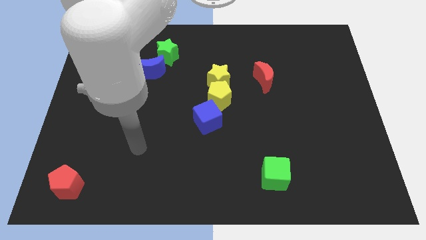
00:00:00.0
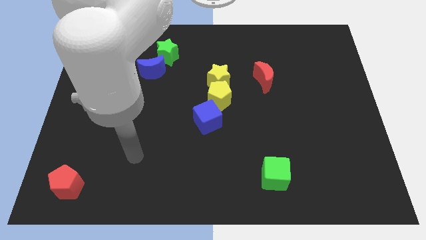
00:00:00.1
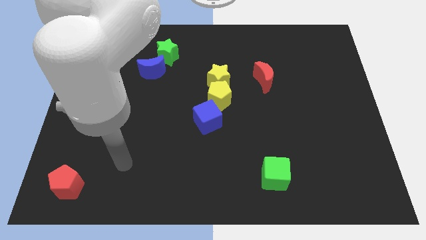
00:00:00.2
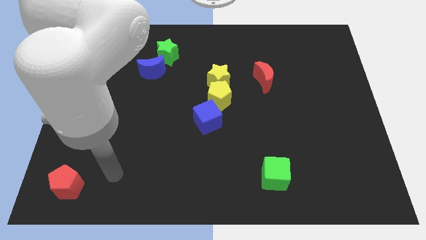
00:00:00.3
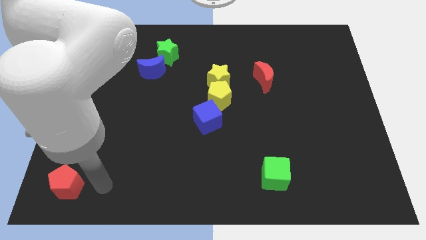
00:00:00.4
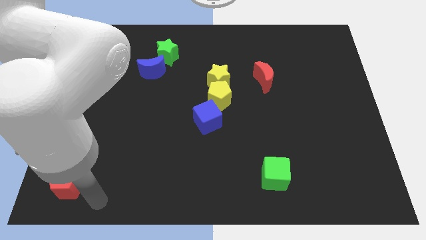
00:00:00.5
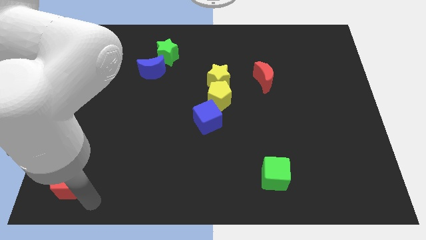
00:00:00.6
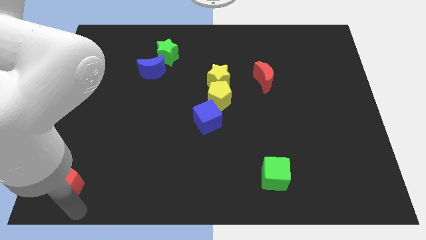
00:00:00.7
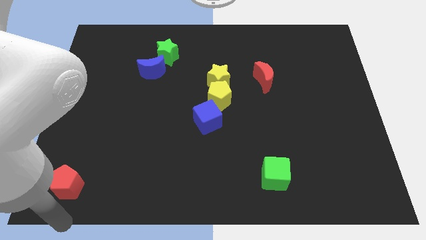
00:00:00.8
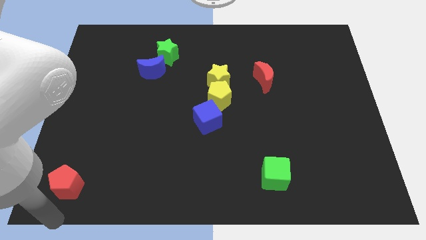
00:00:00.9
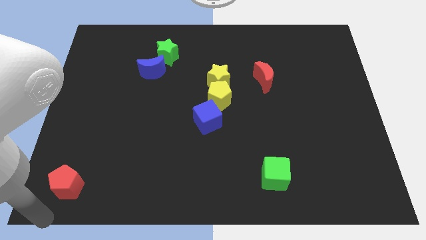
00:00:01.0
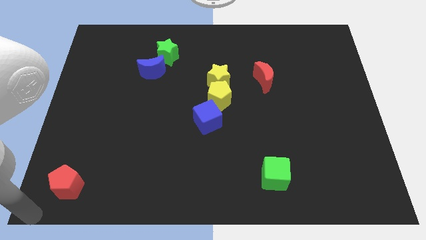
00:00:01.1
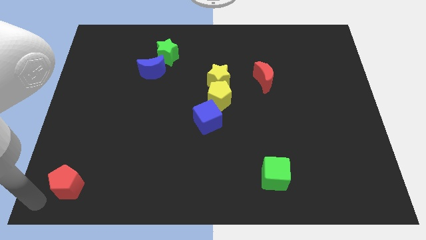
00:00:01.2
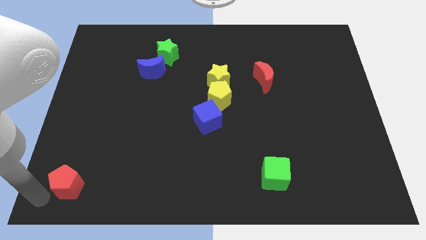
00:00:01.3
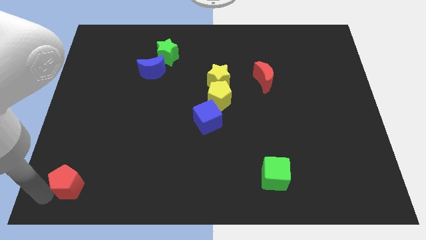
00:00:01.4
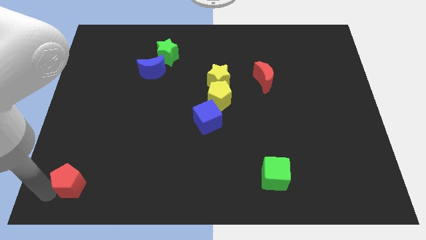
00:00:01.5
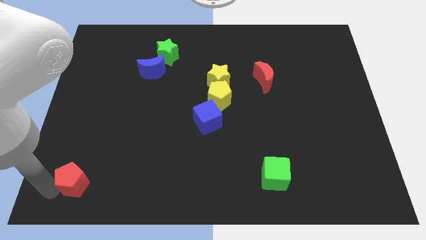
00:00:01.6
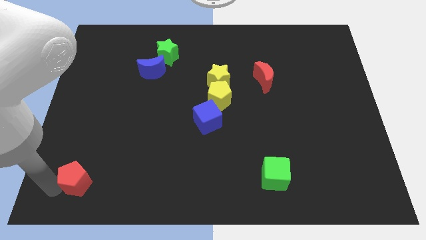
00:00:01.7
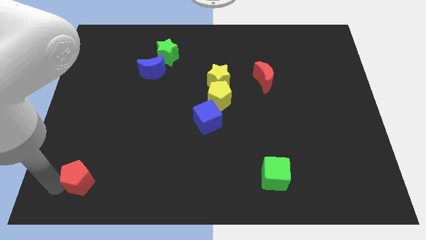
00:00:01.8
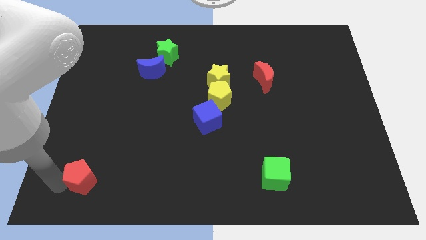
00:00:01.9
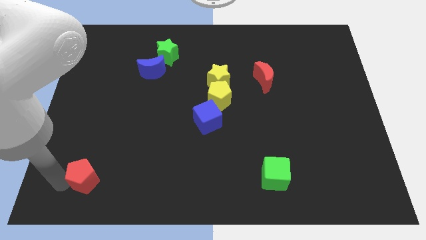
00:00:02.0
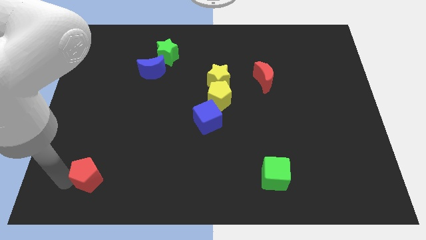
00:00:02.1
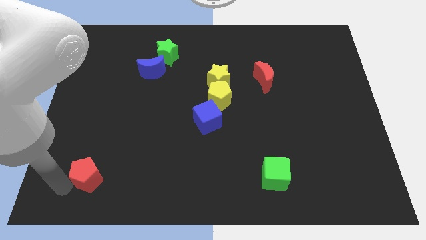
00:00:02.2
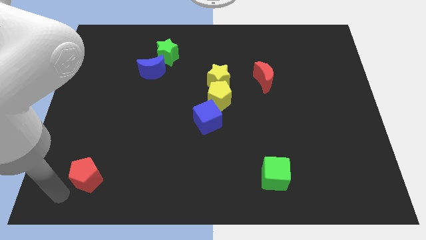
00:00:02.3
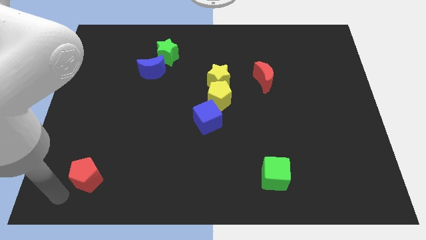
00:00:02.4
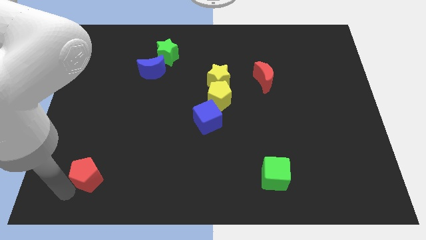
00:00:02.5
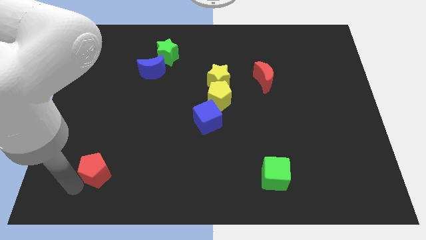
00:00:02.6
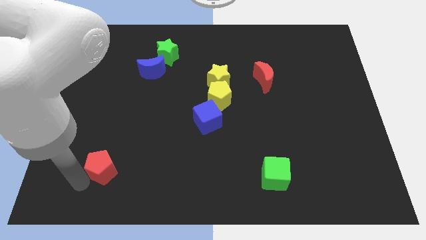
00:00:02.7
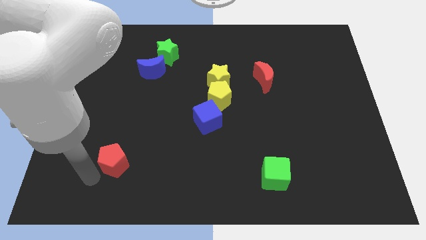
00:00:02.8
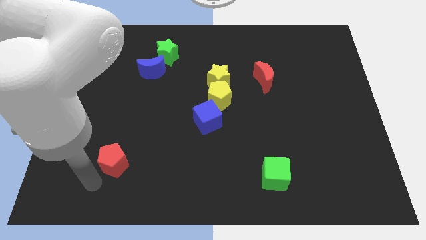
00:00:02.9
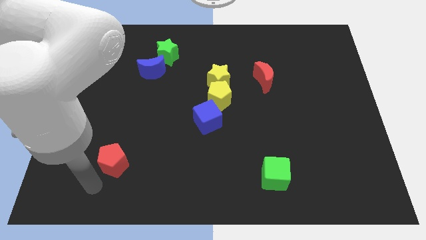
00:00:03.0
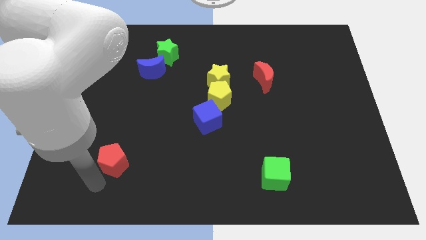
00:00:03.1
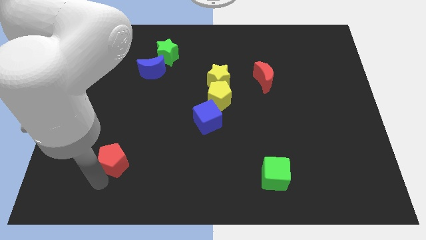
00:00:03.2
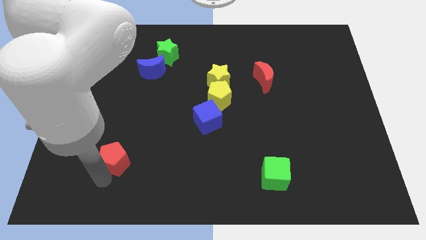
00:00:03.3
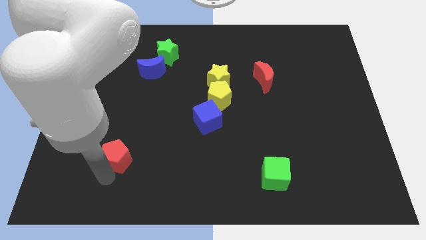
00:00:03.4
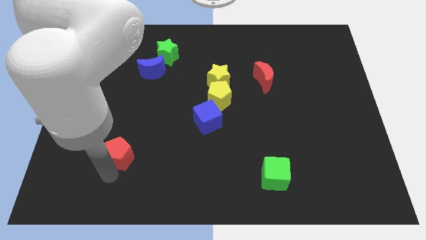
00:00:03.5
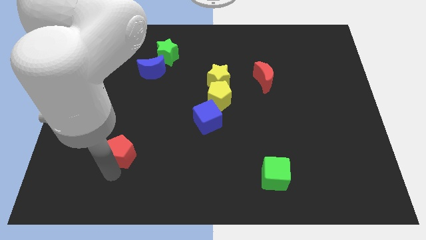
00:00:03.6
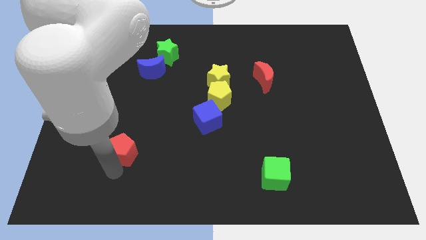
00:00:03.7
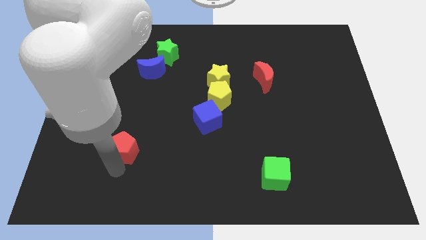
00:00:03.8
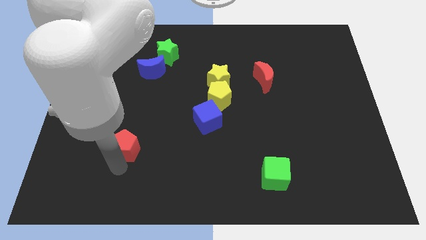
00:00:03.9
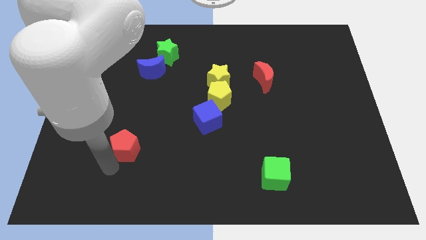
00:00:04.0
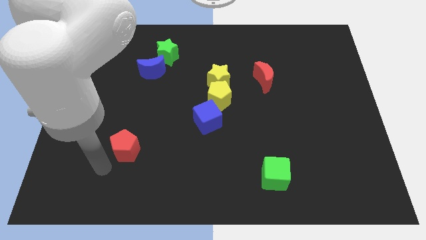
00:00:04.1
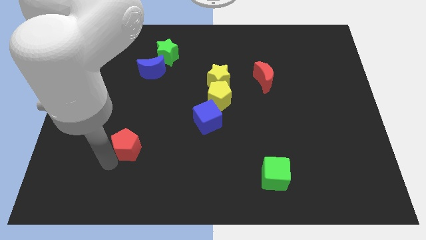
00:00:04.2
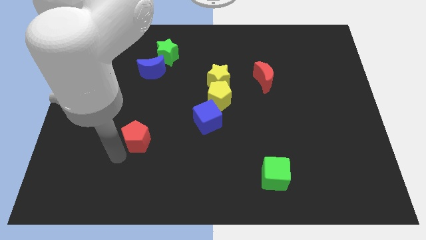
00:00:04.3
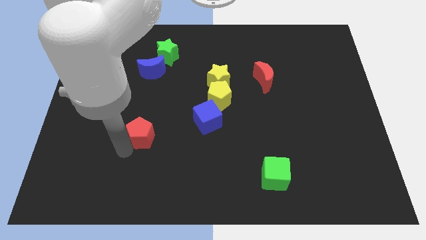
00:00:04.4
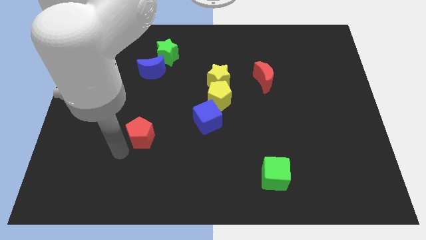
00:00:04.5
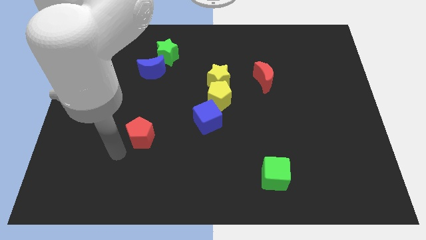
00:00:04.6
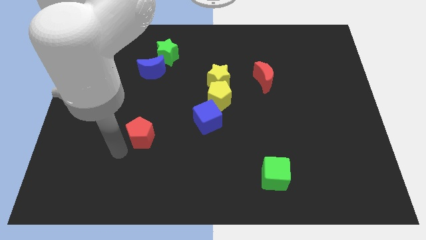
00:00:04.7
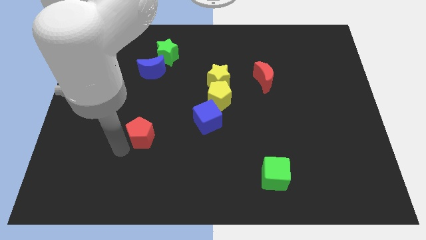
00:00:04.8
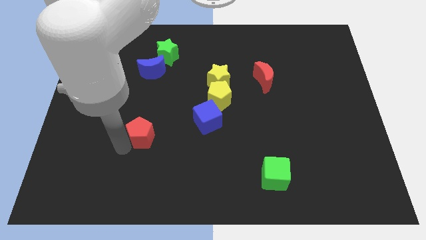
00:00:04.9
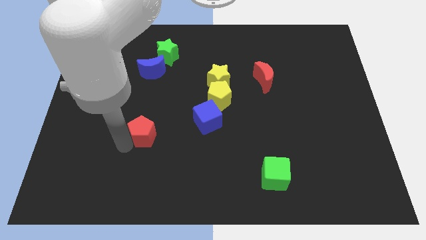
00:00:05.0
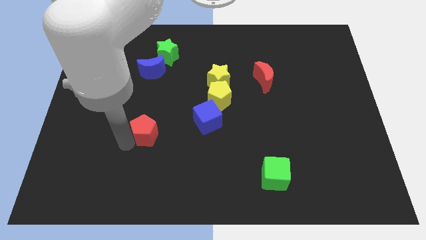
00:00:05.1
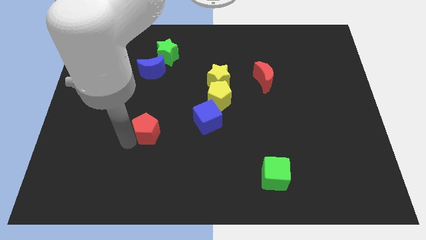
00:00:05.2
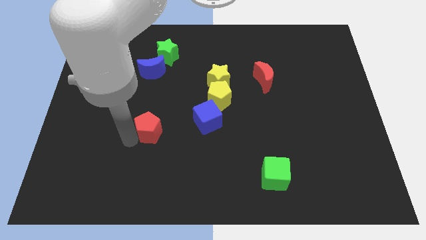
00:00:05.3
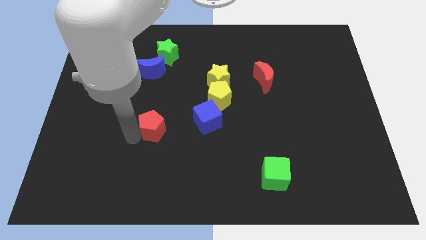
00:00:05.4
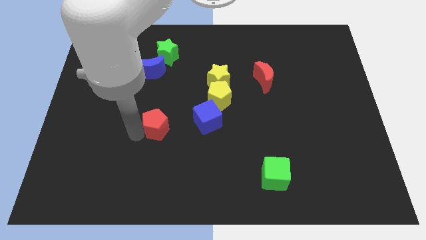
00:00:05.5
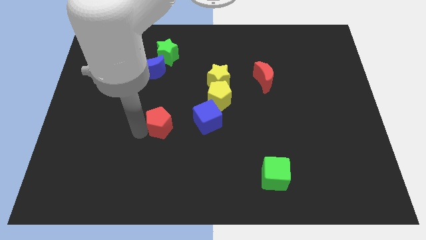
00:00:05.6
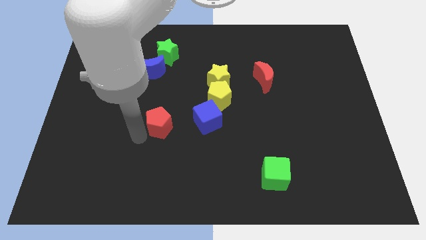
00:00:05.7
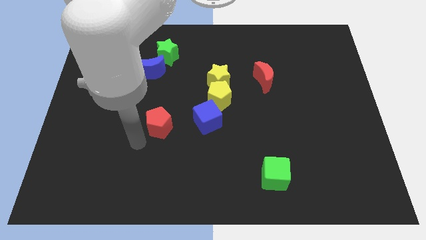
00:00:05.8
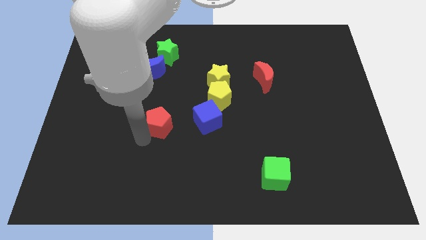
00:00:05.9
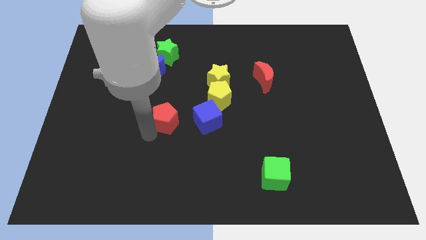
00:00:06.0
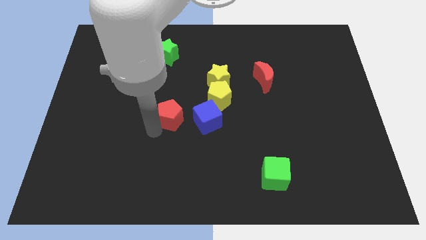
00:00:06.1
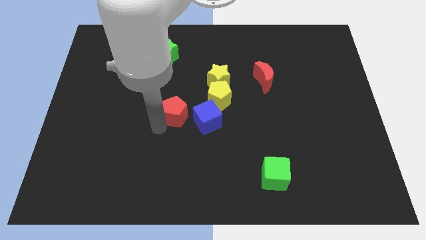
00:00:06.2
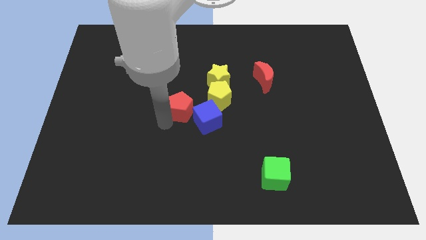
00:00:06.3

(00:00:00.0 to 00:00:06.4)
slide the red pentagon to the bottom left of the yellow star

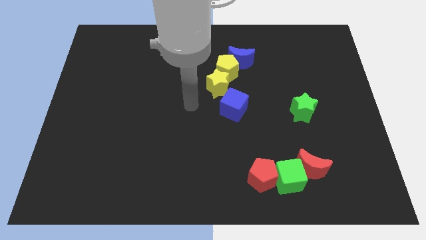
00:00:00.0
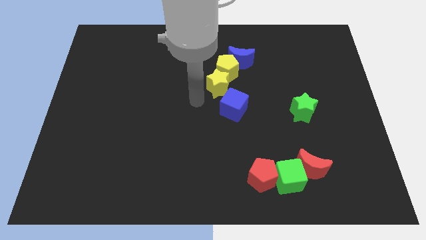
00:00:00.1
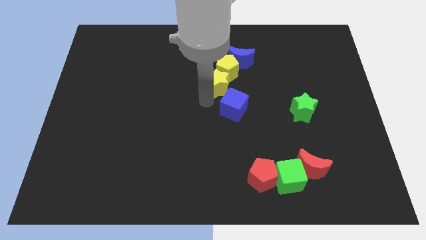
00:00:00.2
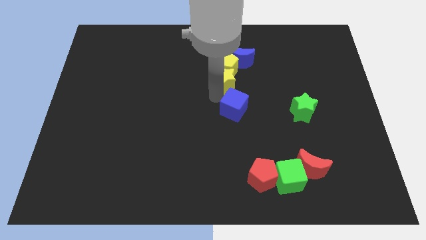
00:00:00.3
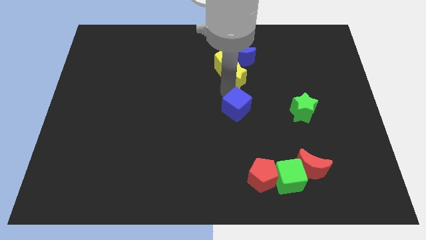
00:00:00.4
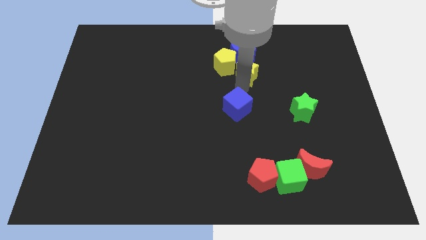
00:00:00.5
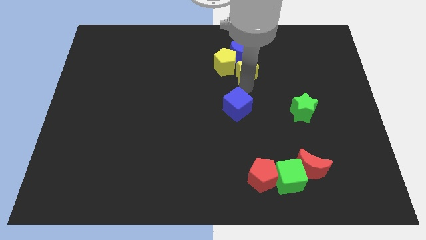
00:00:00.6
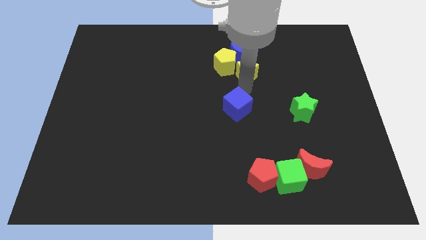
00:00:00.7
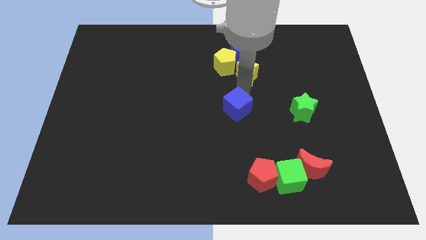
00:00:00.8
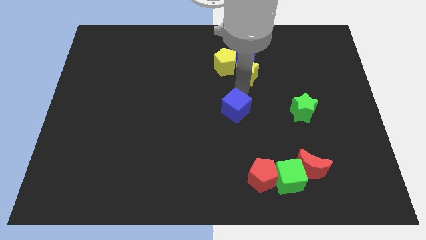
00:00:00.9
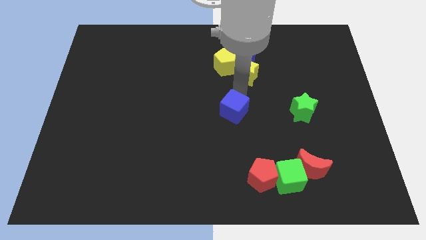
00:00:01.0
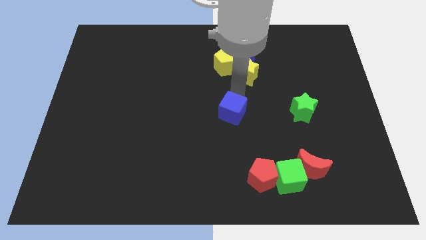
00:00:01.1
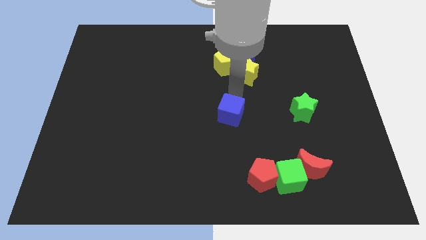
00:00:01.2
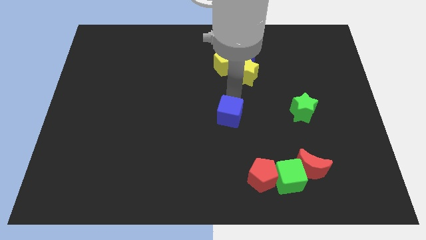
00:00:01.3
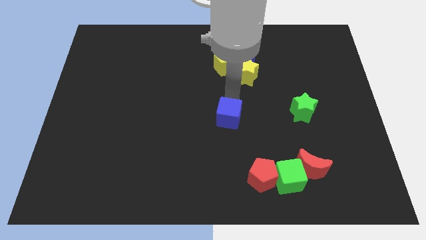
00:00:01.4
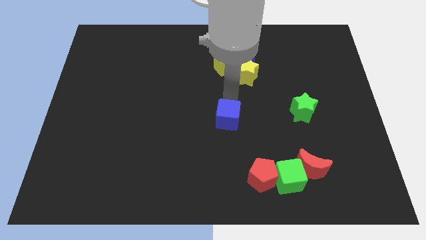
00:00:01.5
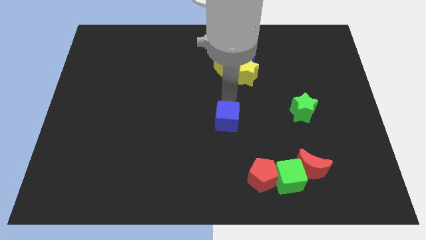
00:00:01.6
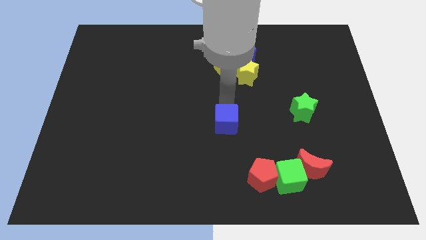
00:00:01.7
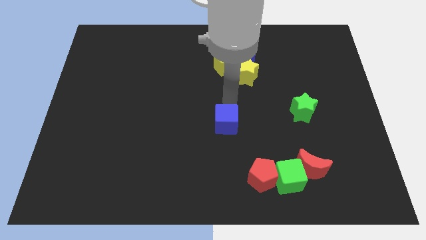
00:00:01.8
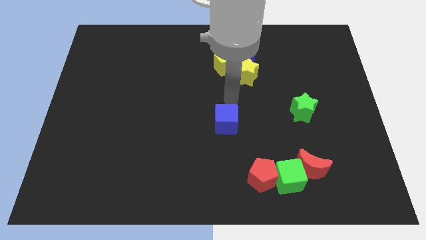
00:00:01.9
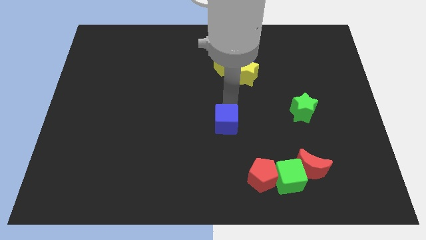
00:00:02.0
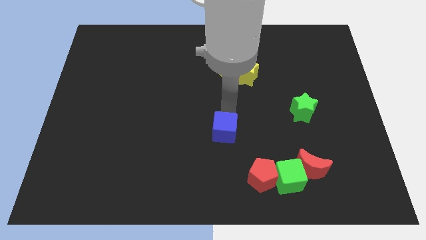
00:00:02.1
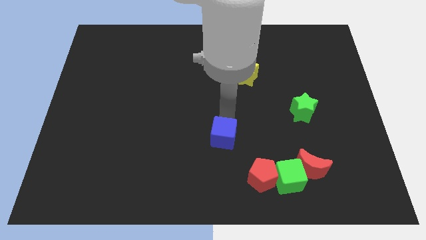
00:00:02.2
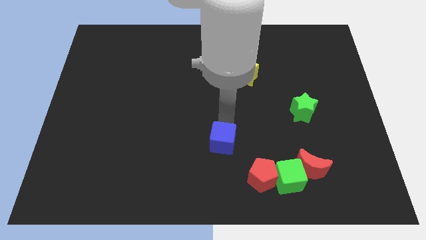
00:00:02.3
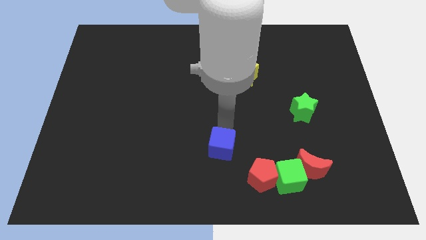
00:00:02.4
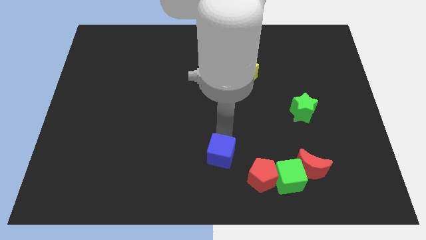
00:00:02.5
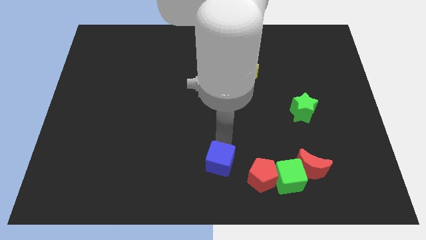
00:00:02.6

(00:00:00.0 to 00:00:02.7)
put the blue cube left of the red pentagon
